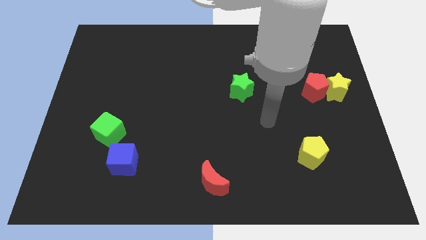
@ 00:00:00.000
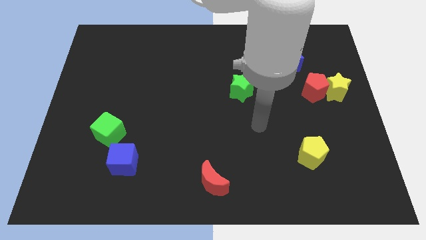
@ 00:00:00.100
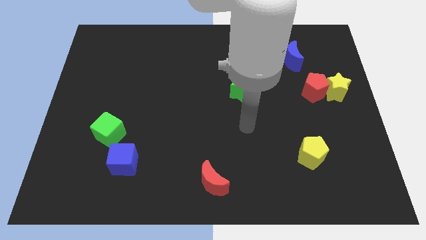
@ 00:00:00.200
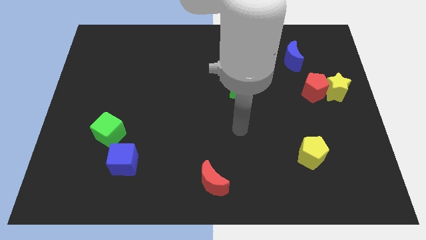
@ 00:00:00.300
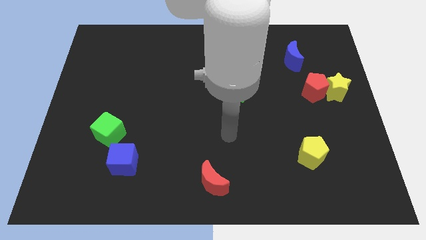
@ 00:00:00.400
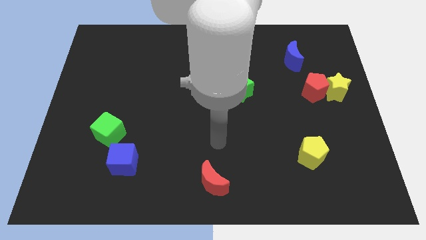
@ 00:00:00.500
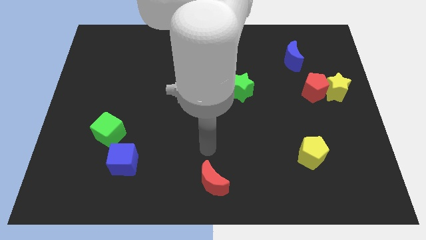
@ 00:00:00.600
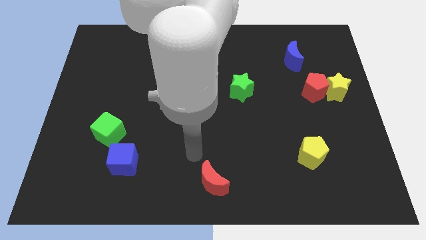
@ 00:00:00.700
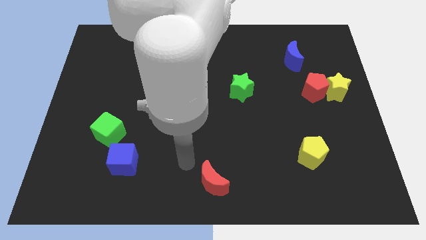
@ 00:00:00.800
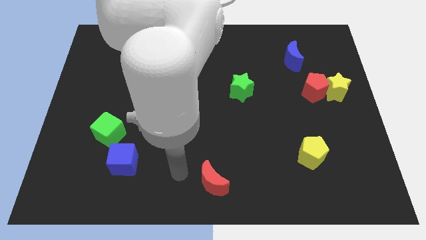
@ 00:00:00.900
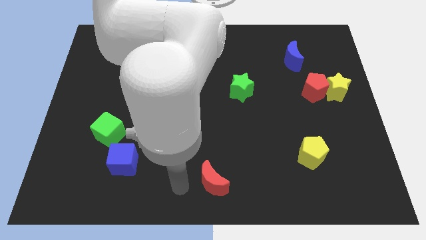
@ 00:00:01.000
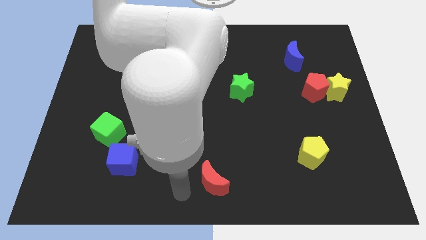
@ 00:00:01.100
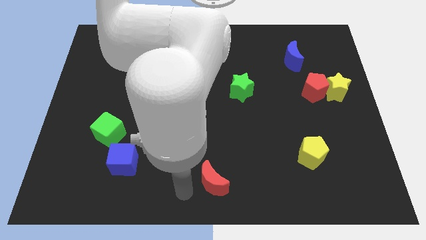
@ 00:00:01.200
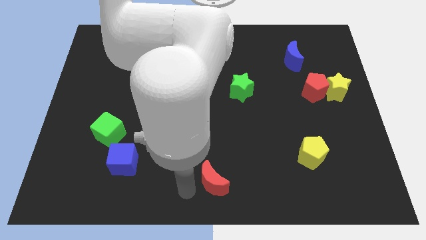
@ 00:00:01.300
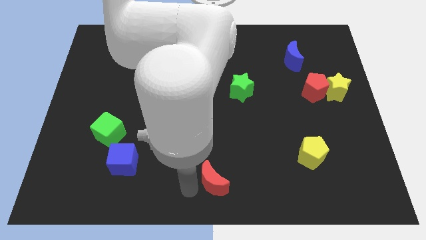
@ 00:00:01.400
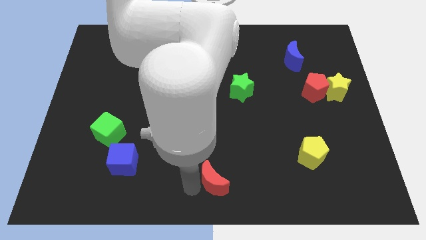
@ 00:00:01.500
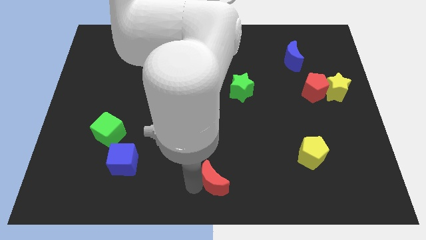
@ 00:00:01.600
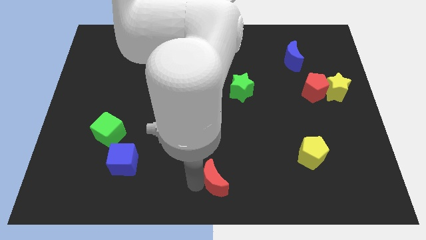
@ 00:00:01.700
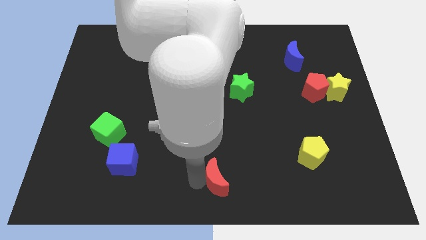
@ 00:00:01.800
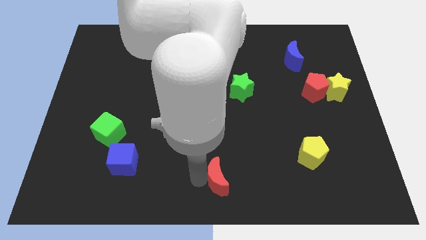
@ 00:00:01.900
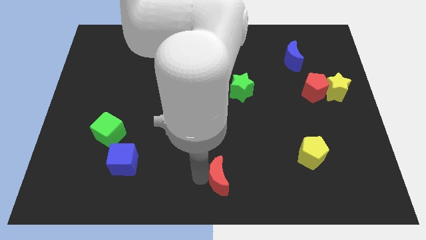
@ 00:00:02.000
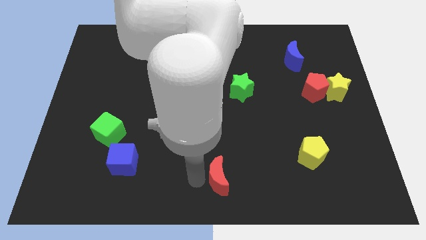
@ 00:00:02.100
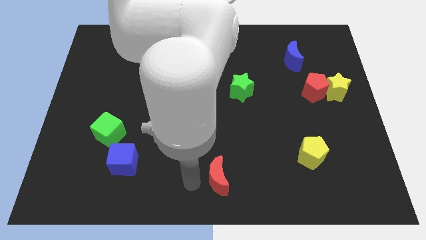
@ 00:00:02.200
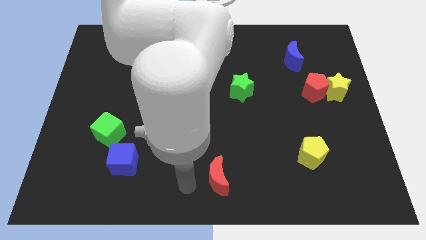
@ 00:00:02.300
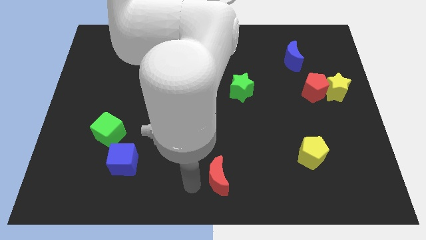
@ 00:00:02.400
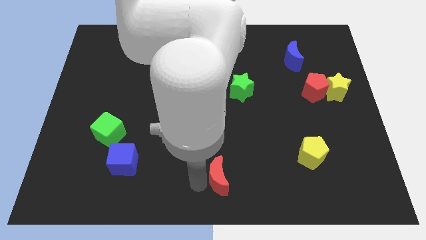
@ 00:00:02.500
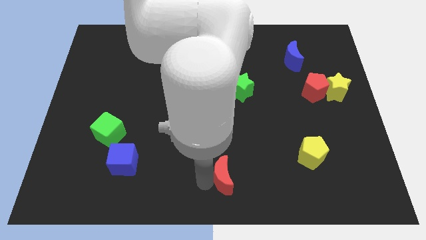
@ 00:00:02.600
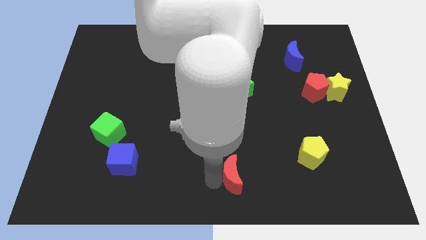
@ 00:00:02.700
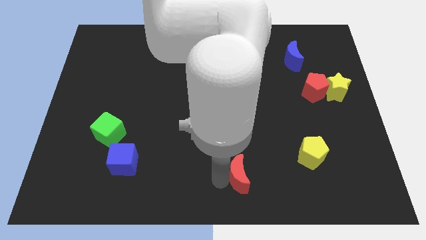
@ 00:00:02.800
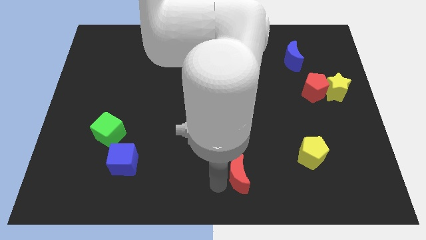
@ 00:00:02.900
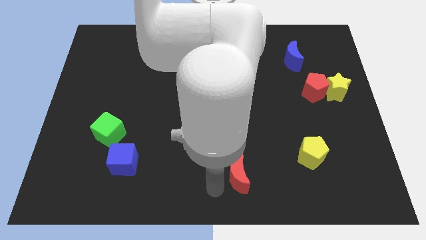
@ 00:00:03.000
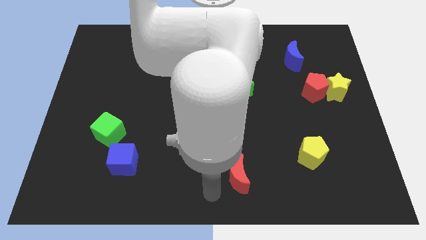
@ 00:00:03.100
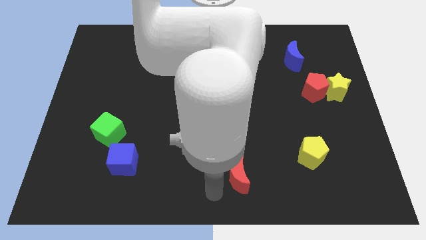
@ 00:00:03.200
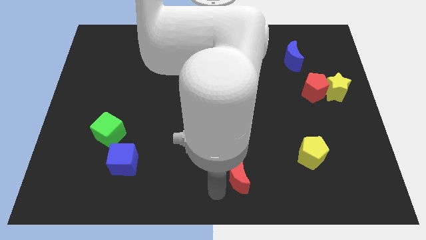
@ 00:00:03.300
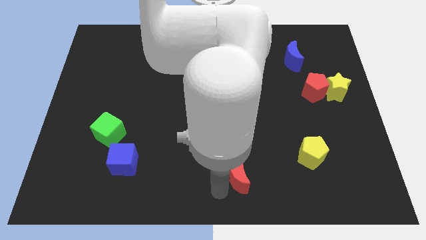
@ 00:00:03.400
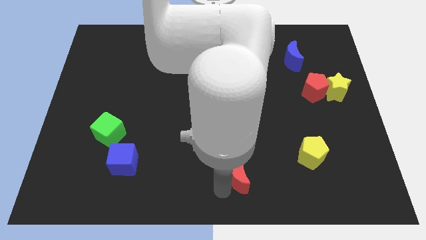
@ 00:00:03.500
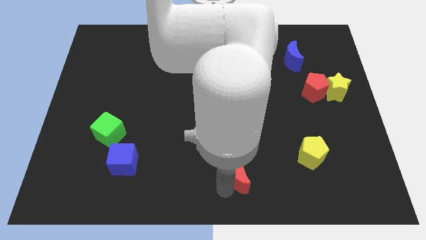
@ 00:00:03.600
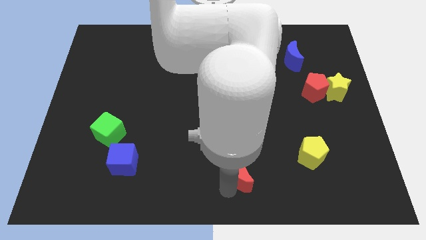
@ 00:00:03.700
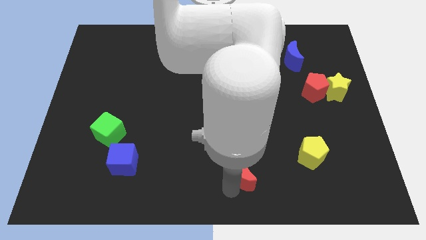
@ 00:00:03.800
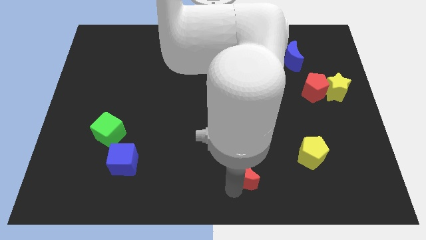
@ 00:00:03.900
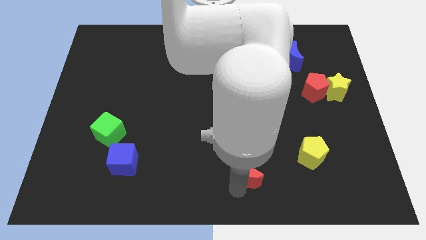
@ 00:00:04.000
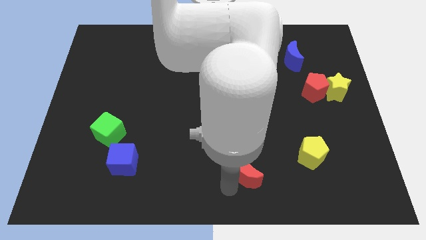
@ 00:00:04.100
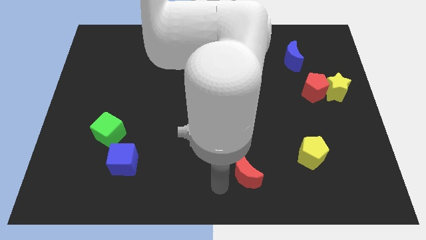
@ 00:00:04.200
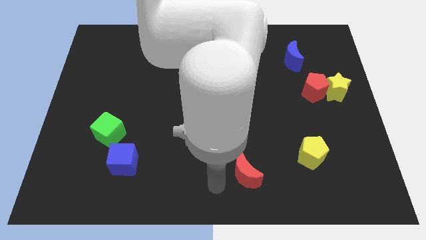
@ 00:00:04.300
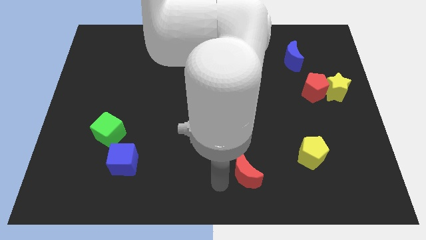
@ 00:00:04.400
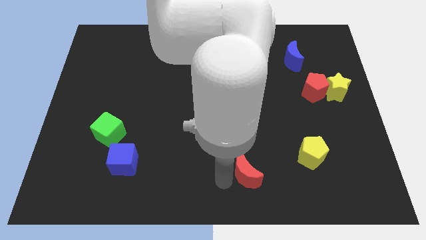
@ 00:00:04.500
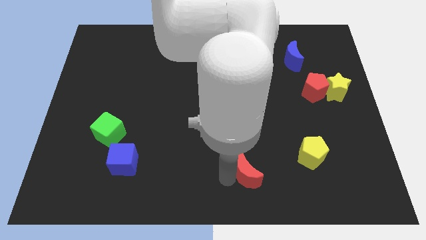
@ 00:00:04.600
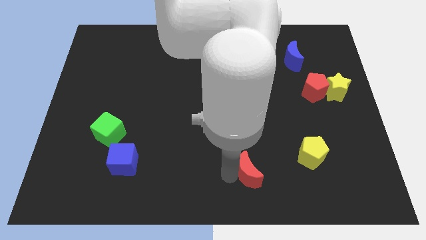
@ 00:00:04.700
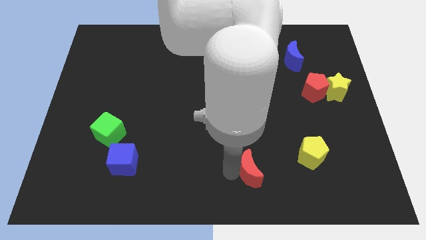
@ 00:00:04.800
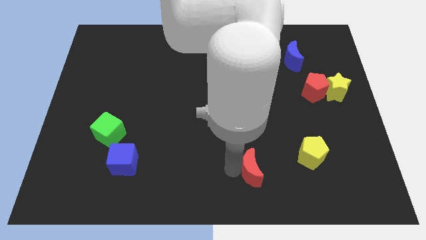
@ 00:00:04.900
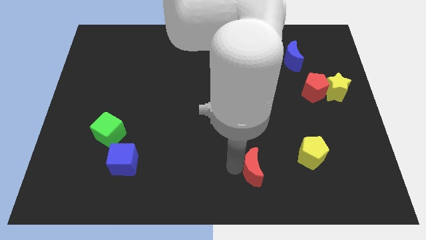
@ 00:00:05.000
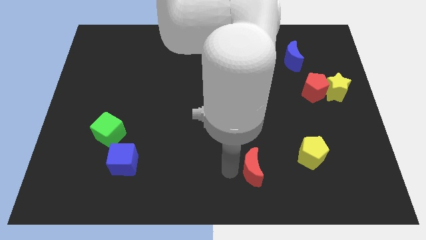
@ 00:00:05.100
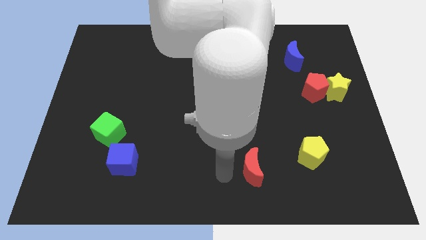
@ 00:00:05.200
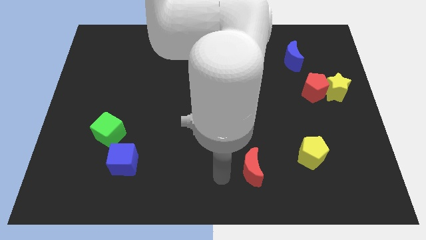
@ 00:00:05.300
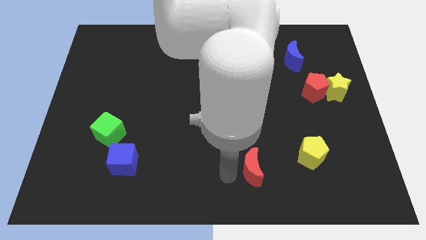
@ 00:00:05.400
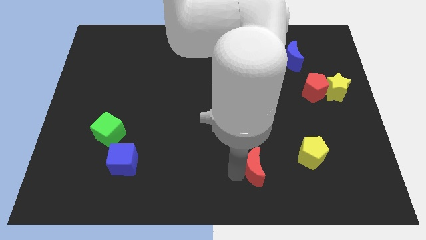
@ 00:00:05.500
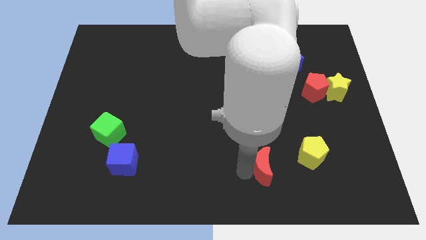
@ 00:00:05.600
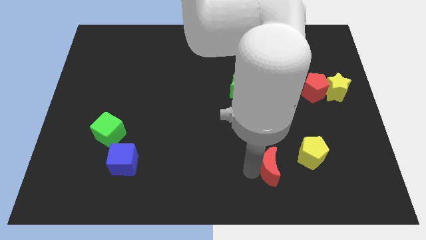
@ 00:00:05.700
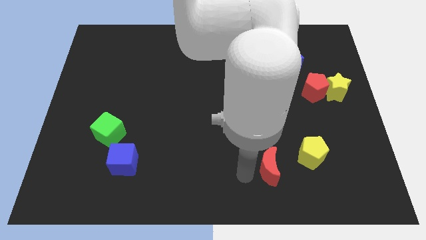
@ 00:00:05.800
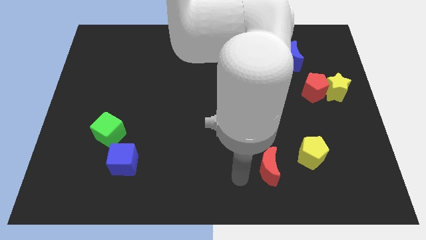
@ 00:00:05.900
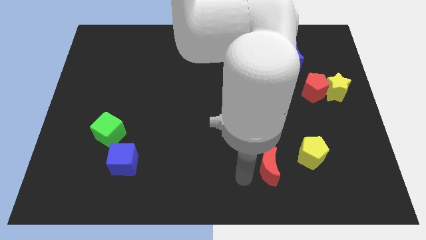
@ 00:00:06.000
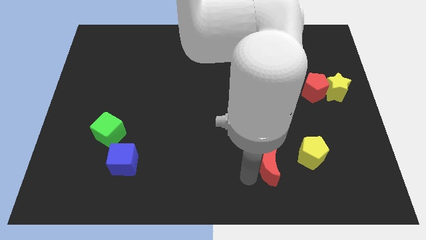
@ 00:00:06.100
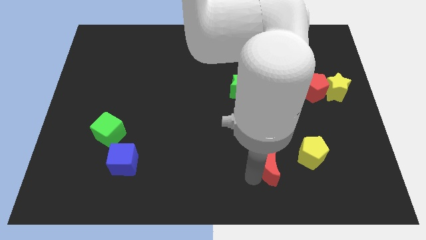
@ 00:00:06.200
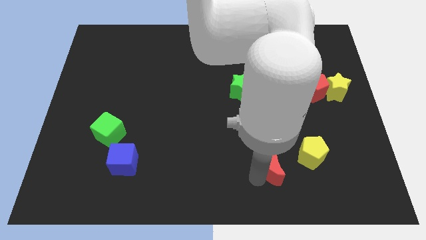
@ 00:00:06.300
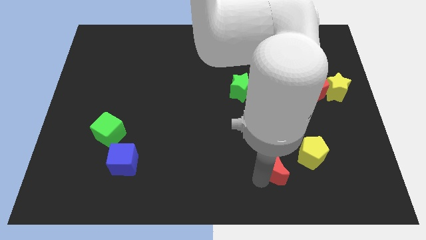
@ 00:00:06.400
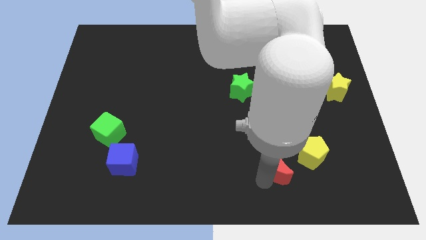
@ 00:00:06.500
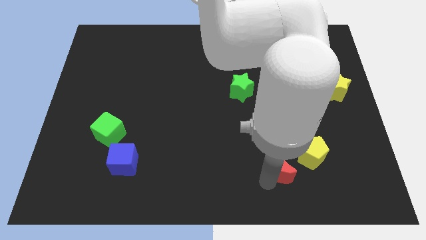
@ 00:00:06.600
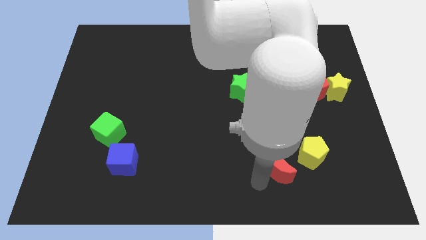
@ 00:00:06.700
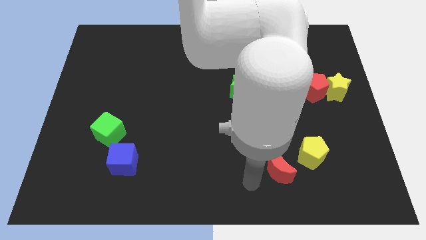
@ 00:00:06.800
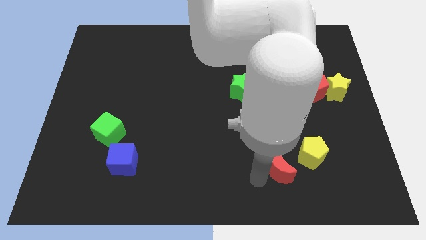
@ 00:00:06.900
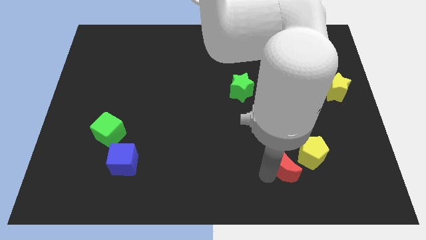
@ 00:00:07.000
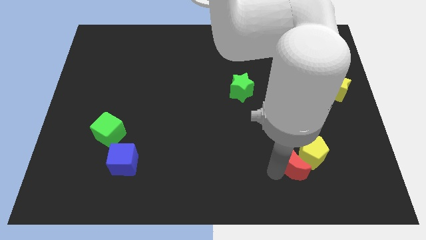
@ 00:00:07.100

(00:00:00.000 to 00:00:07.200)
push the red moon to the yellow pentagon
